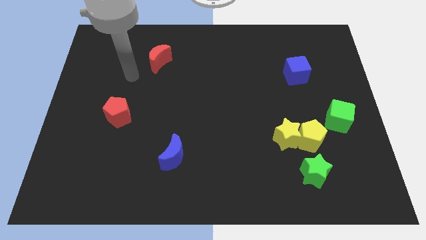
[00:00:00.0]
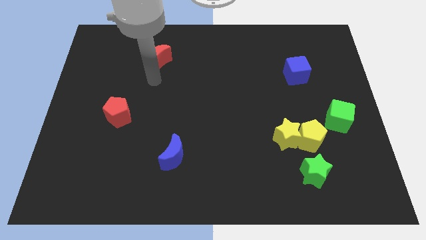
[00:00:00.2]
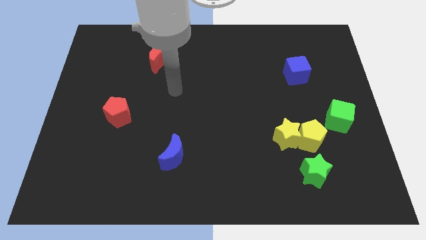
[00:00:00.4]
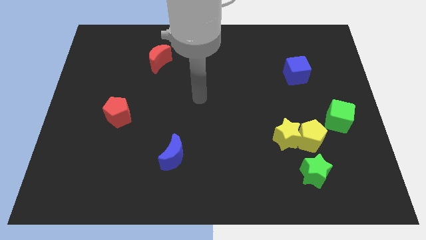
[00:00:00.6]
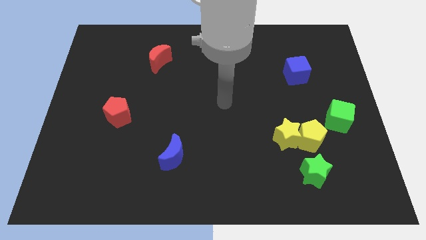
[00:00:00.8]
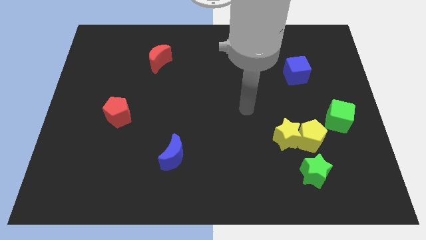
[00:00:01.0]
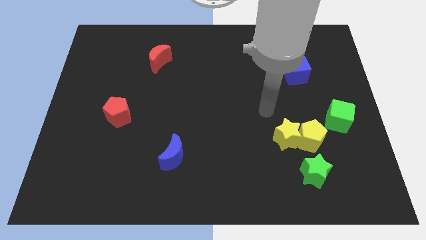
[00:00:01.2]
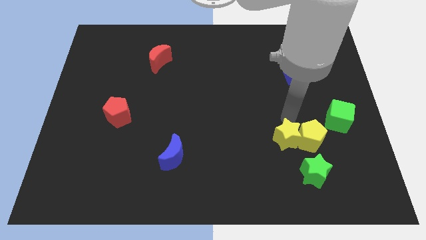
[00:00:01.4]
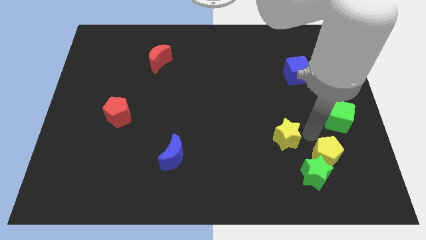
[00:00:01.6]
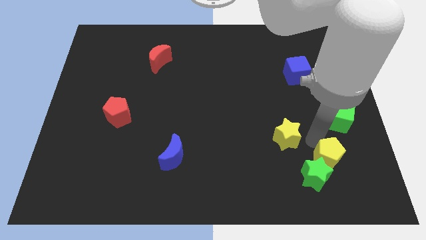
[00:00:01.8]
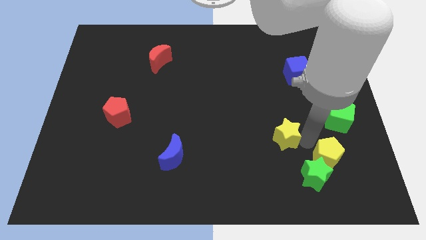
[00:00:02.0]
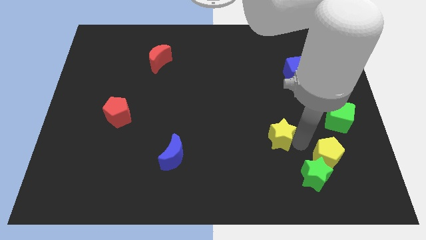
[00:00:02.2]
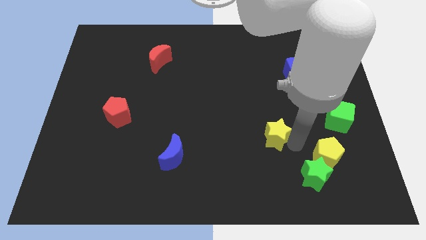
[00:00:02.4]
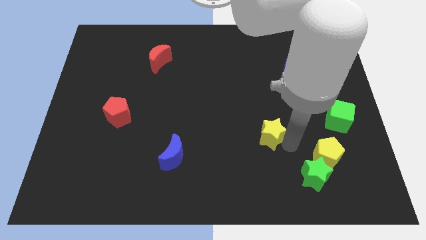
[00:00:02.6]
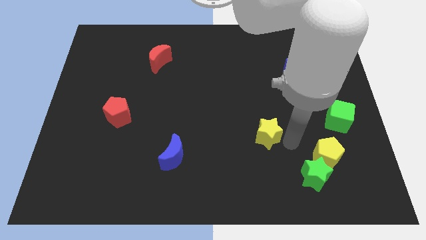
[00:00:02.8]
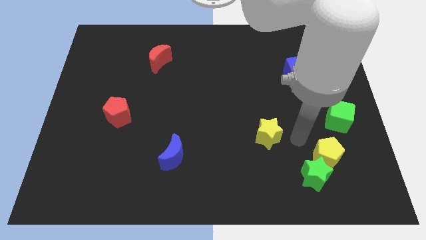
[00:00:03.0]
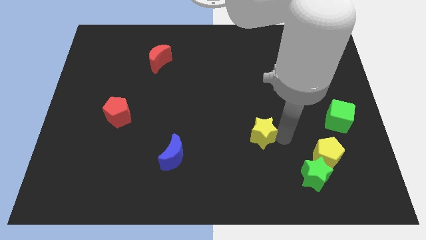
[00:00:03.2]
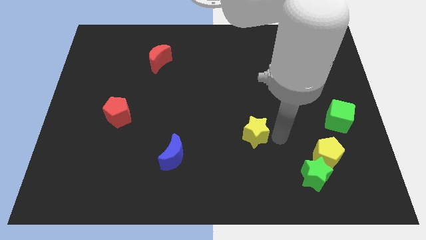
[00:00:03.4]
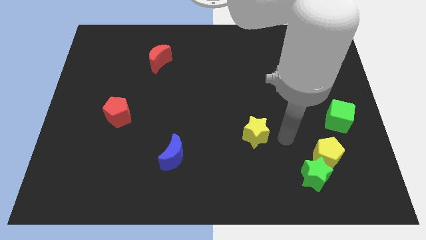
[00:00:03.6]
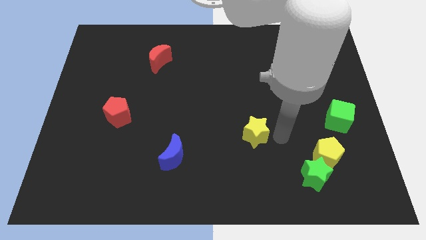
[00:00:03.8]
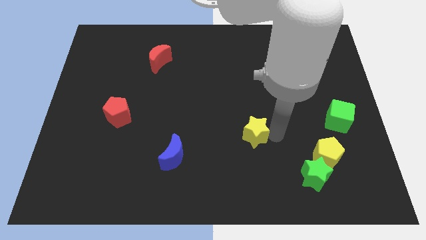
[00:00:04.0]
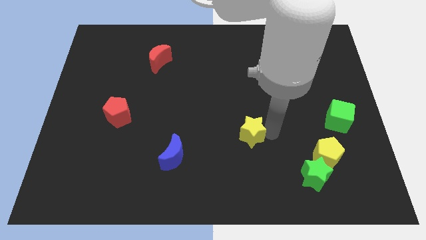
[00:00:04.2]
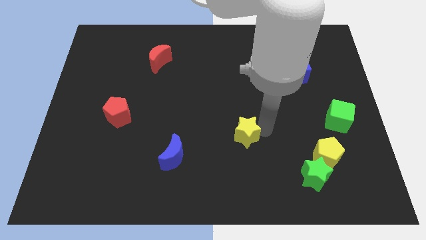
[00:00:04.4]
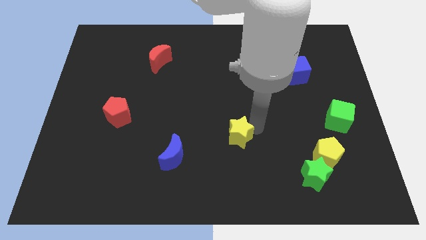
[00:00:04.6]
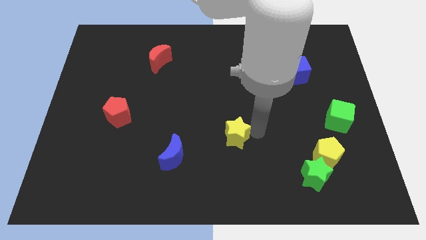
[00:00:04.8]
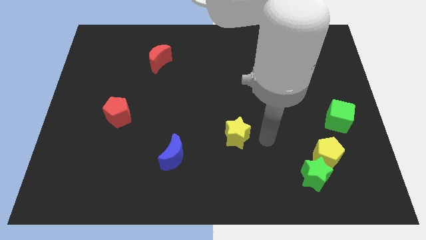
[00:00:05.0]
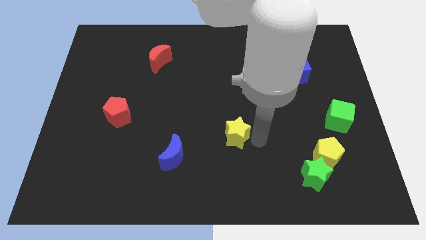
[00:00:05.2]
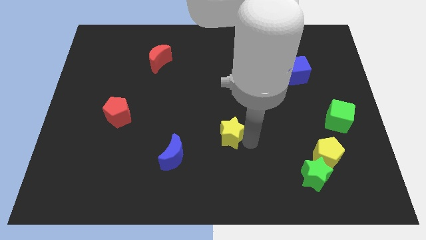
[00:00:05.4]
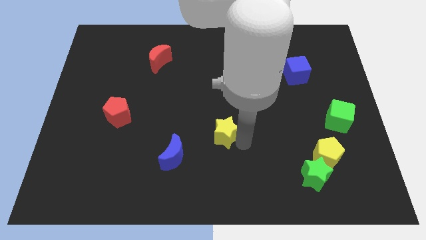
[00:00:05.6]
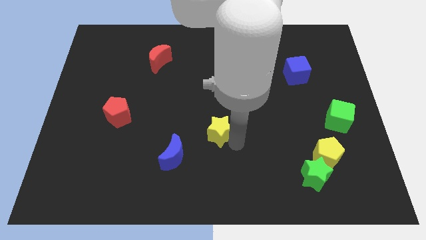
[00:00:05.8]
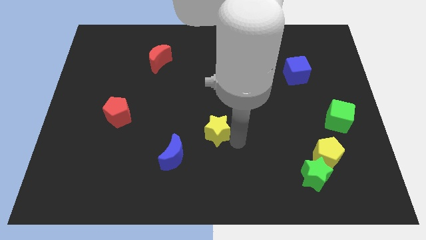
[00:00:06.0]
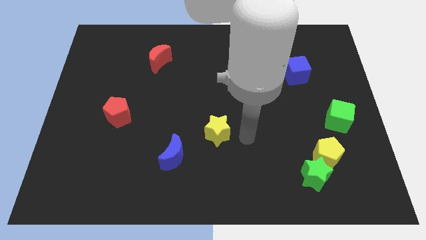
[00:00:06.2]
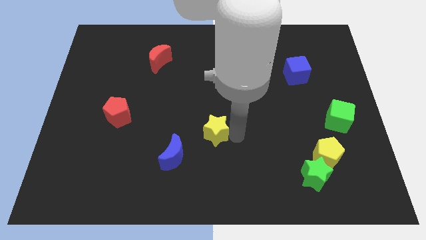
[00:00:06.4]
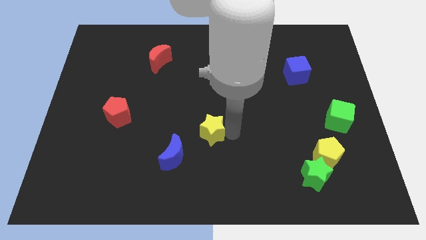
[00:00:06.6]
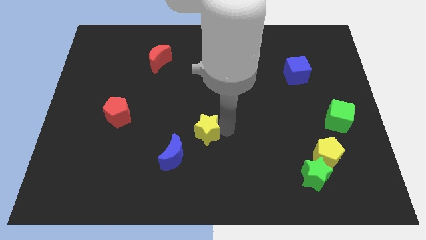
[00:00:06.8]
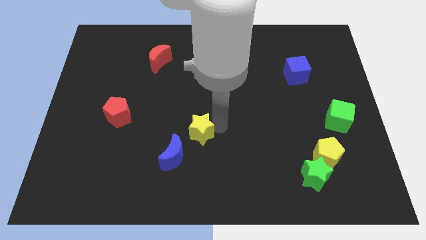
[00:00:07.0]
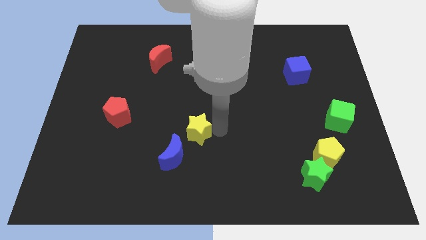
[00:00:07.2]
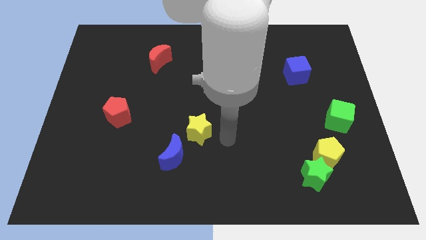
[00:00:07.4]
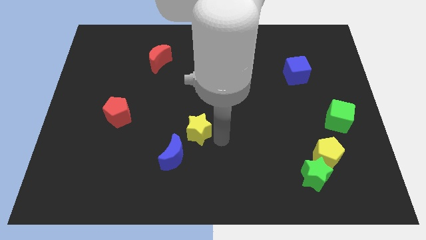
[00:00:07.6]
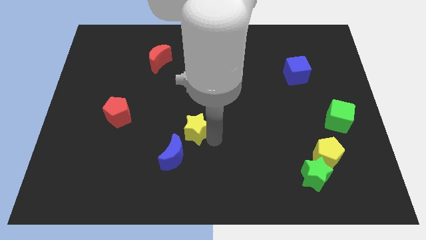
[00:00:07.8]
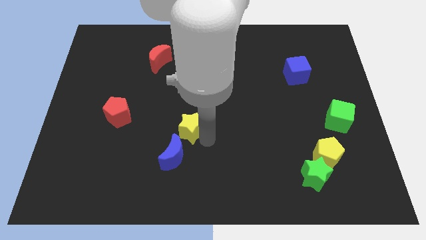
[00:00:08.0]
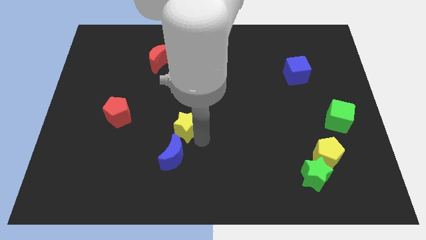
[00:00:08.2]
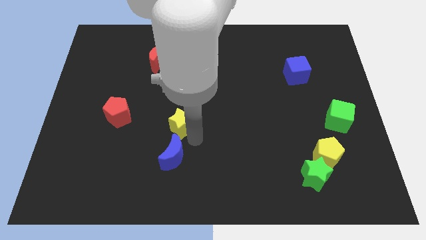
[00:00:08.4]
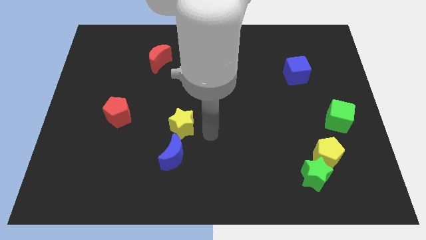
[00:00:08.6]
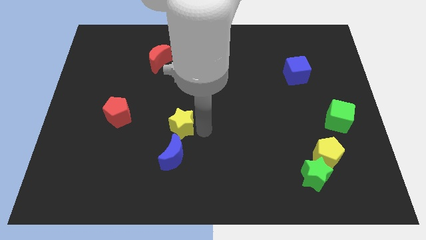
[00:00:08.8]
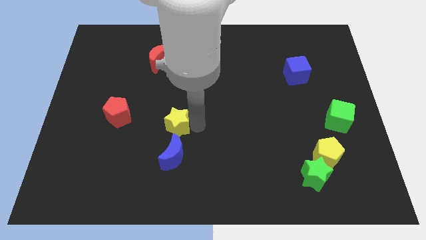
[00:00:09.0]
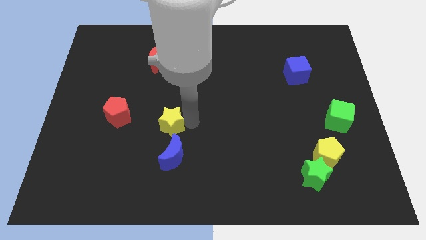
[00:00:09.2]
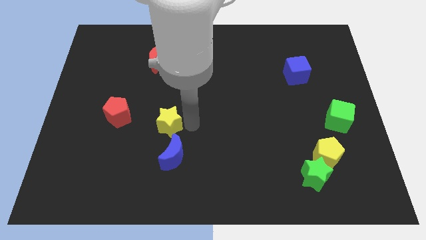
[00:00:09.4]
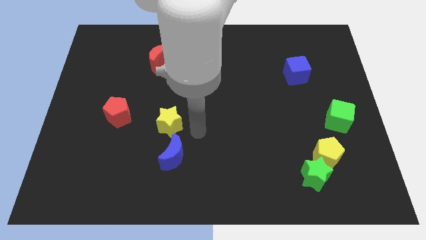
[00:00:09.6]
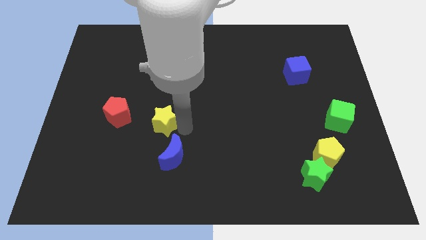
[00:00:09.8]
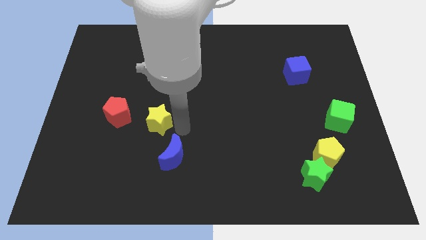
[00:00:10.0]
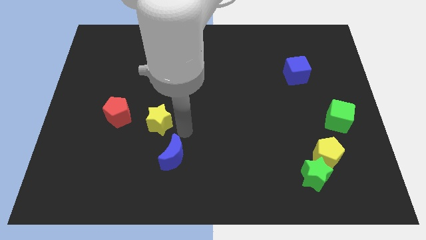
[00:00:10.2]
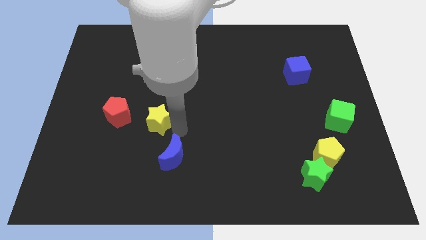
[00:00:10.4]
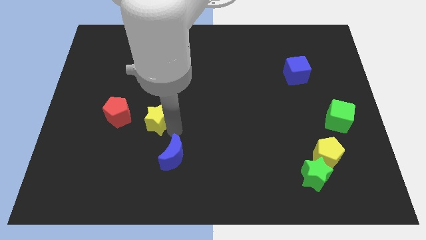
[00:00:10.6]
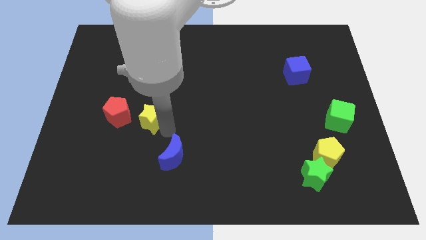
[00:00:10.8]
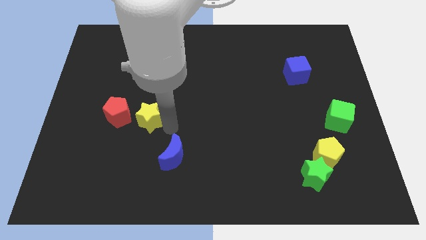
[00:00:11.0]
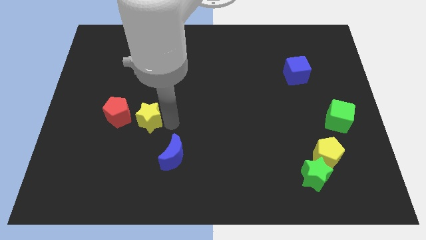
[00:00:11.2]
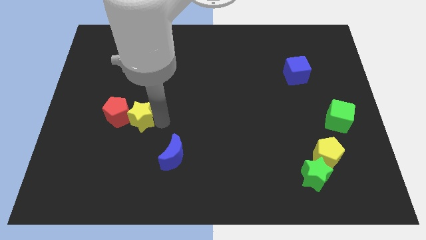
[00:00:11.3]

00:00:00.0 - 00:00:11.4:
put the yellow star close to the red pentagon

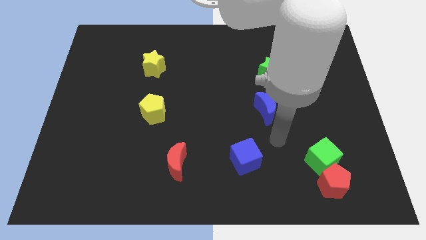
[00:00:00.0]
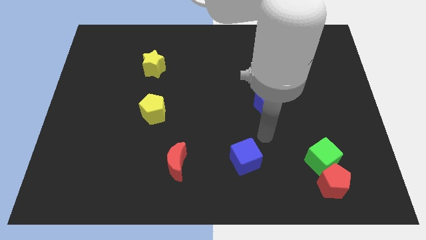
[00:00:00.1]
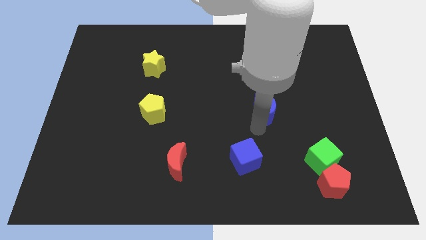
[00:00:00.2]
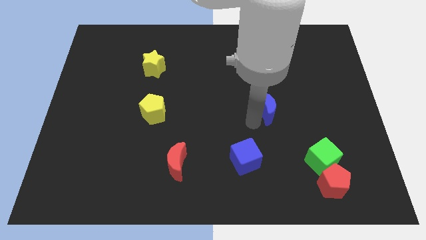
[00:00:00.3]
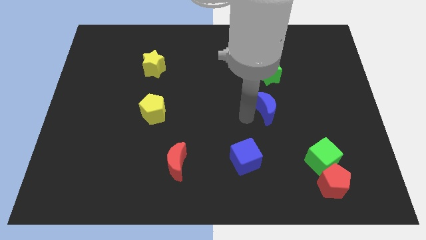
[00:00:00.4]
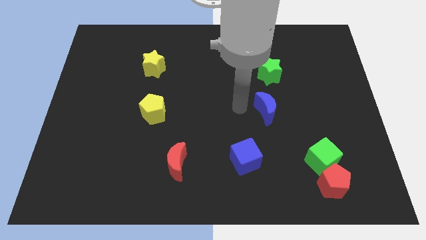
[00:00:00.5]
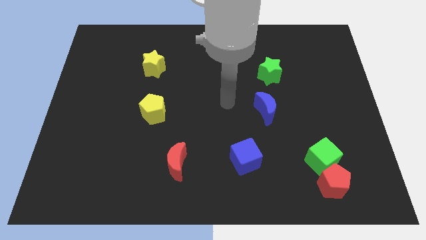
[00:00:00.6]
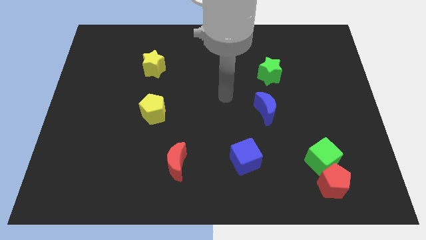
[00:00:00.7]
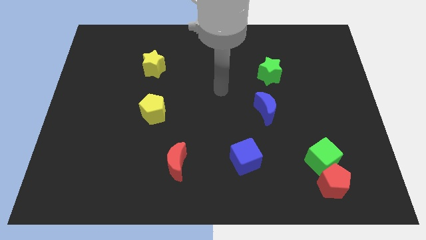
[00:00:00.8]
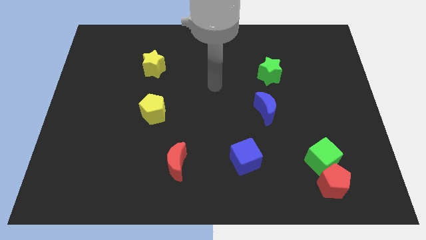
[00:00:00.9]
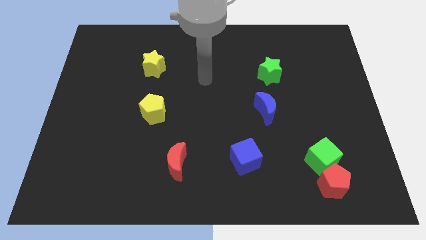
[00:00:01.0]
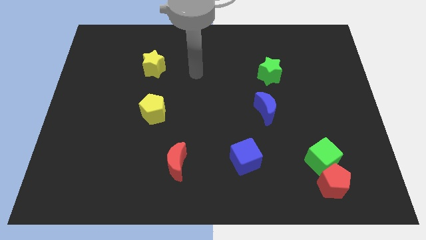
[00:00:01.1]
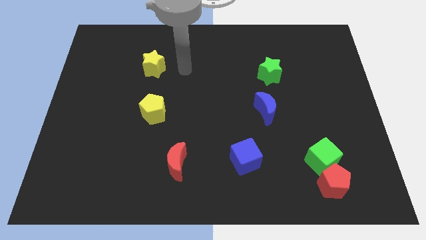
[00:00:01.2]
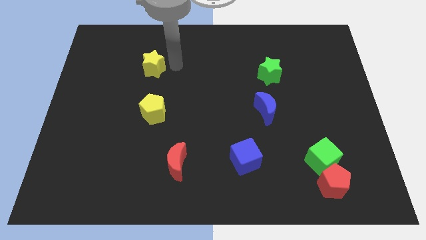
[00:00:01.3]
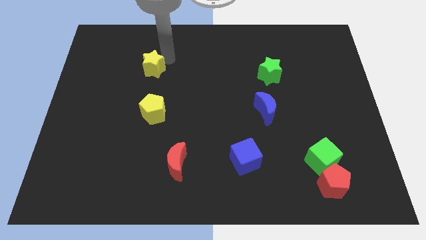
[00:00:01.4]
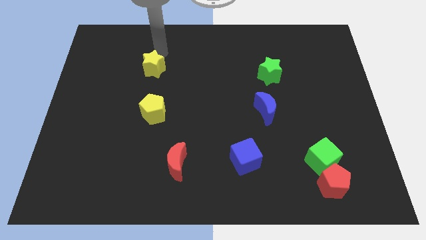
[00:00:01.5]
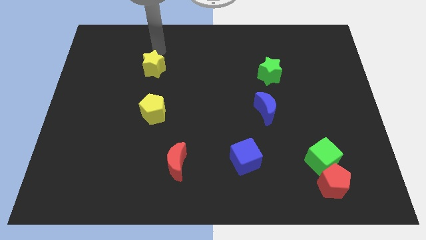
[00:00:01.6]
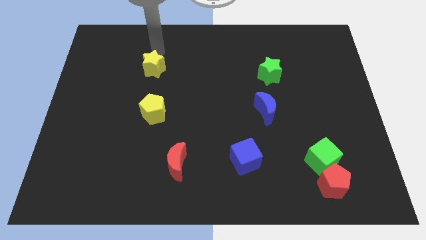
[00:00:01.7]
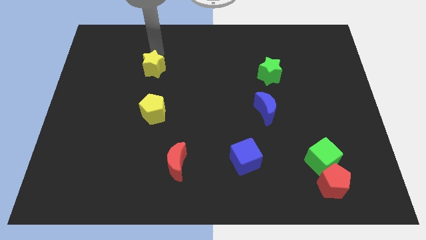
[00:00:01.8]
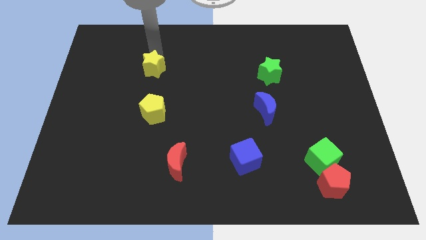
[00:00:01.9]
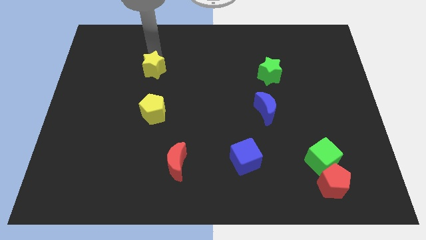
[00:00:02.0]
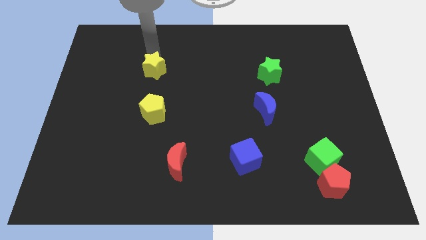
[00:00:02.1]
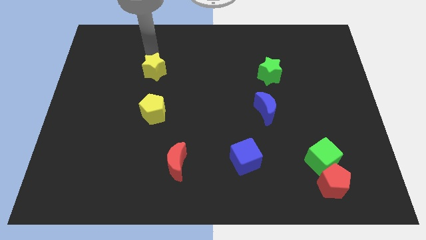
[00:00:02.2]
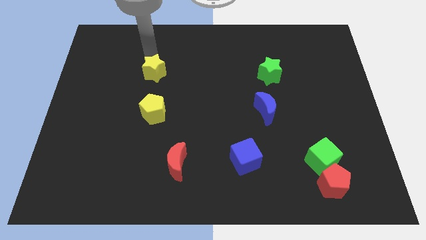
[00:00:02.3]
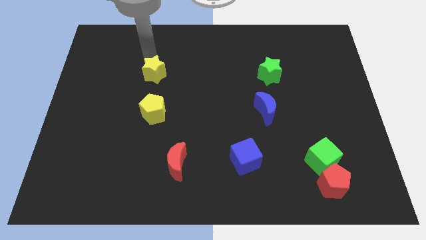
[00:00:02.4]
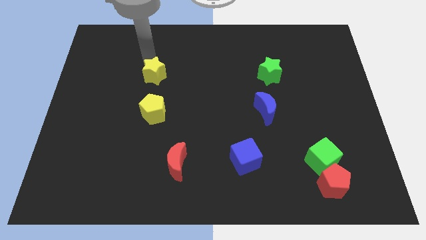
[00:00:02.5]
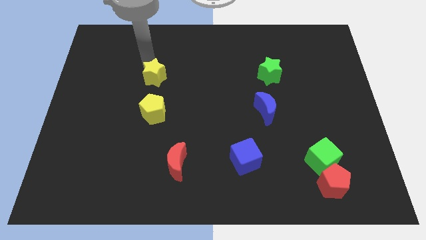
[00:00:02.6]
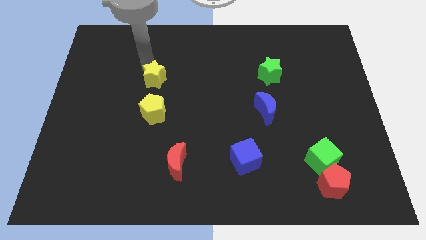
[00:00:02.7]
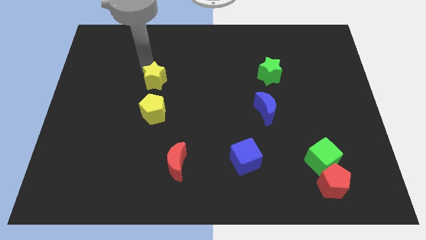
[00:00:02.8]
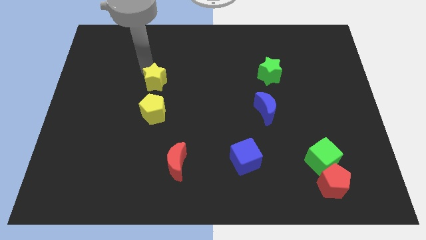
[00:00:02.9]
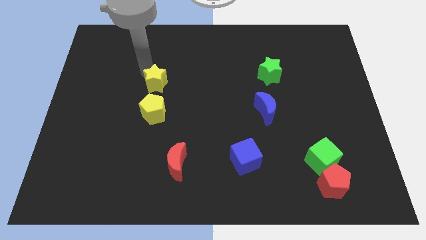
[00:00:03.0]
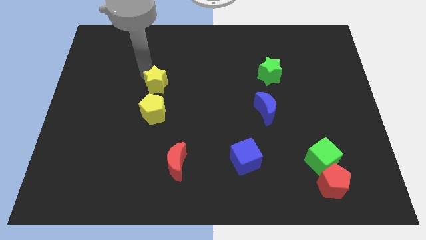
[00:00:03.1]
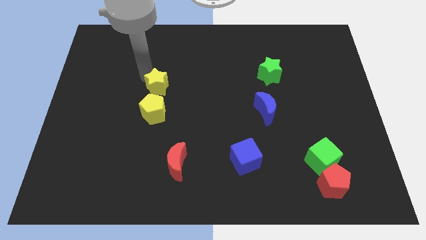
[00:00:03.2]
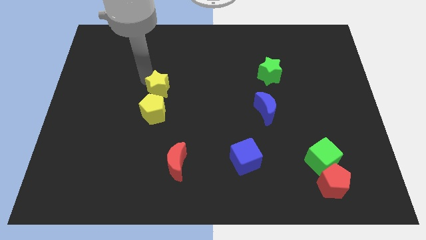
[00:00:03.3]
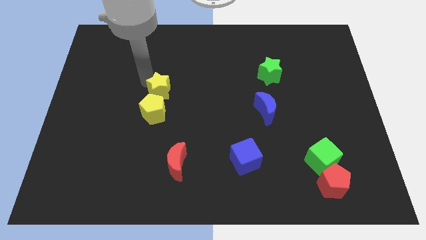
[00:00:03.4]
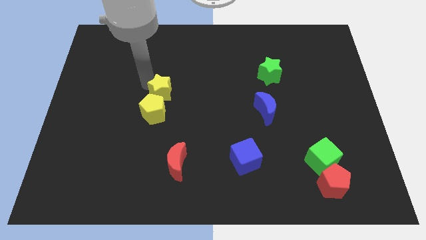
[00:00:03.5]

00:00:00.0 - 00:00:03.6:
slide the yellow star towards the yellow pentagon
